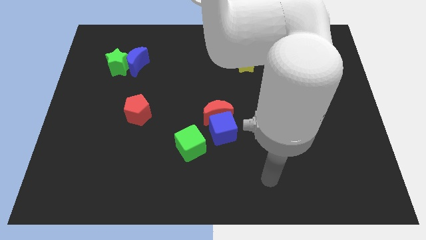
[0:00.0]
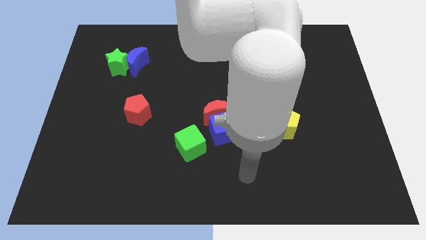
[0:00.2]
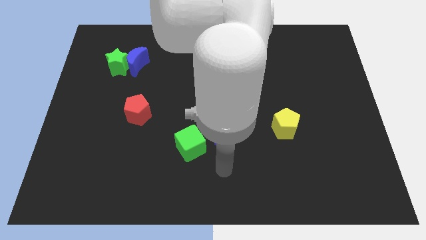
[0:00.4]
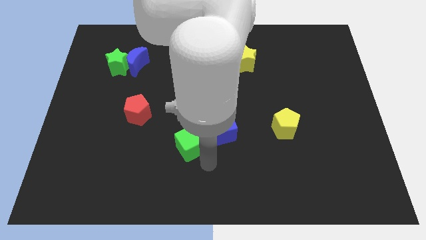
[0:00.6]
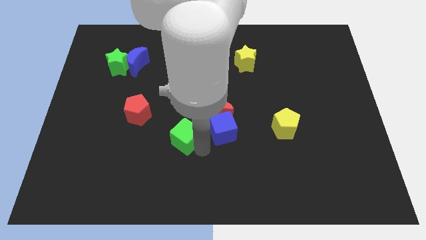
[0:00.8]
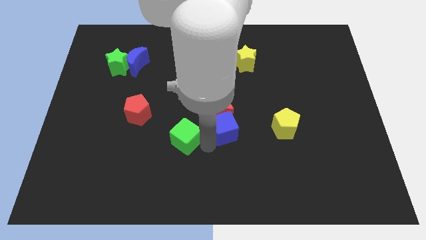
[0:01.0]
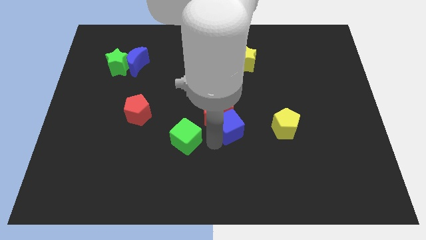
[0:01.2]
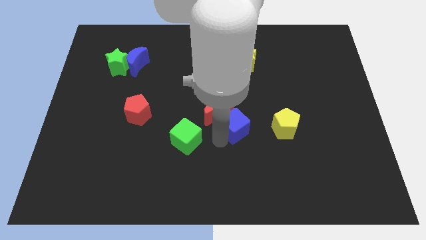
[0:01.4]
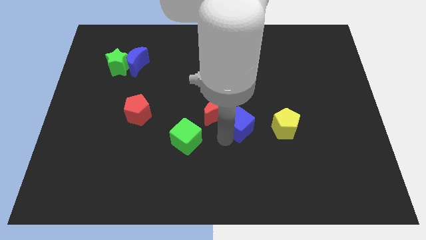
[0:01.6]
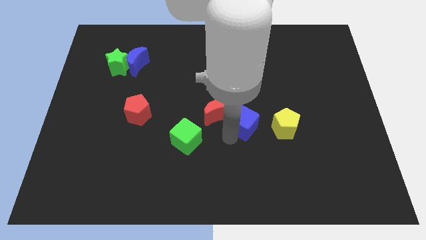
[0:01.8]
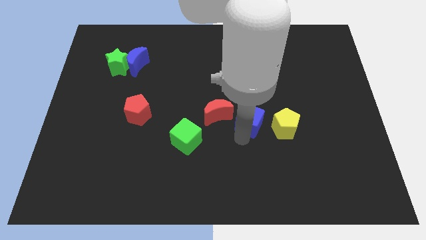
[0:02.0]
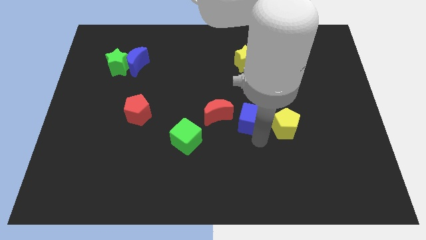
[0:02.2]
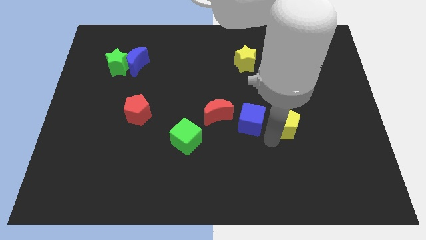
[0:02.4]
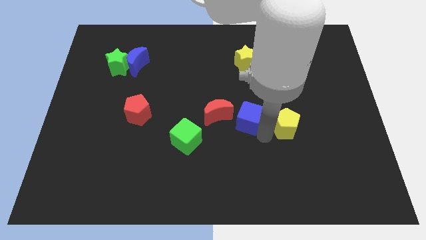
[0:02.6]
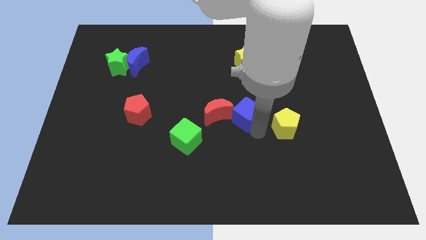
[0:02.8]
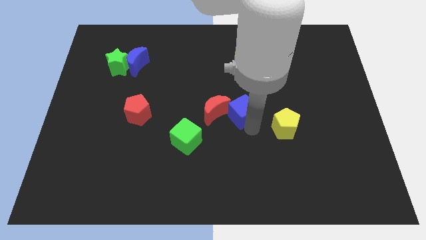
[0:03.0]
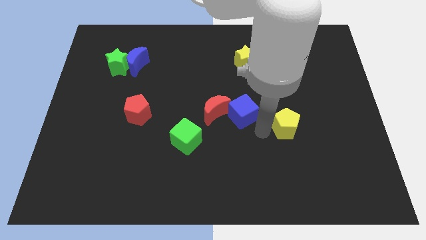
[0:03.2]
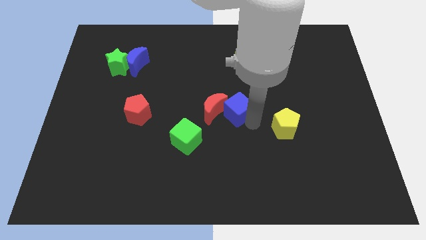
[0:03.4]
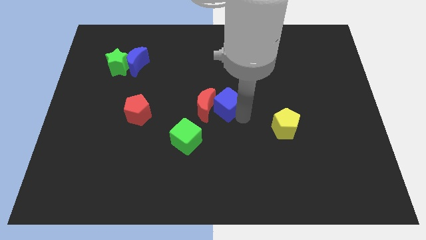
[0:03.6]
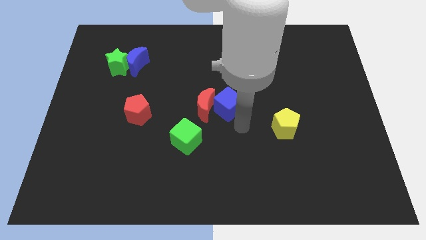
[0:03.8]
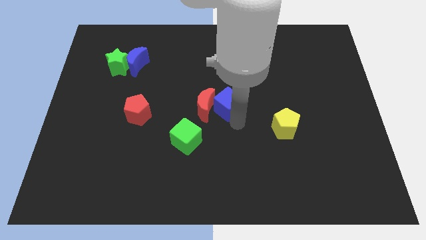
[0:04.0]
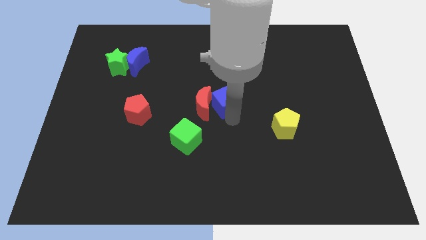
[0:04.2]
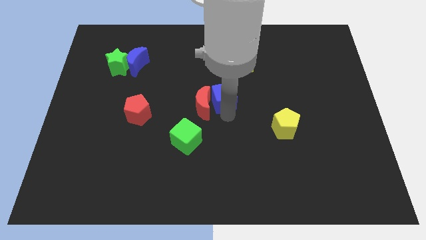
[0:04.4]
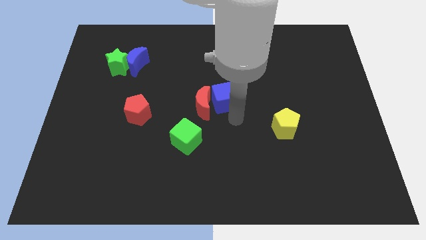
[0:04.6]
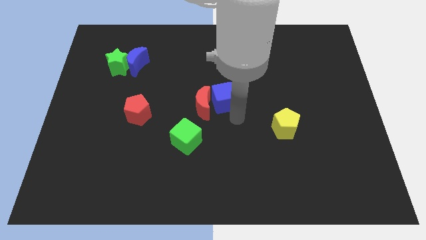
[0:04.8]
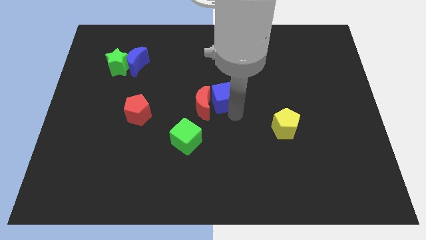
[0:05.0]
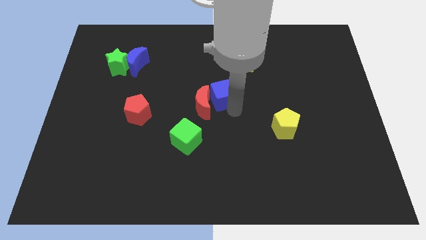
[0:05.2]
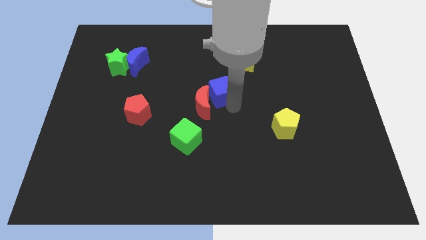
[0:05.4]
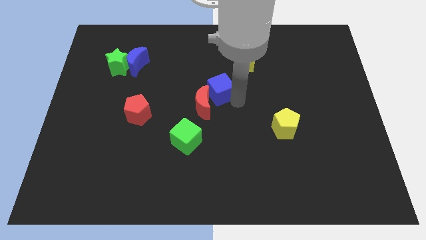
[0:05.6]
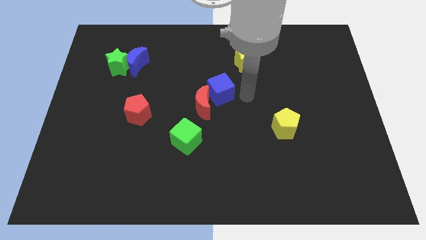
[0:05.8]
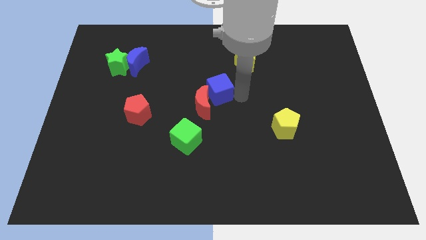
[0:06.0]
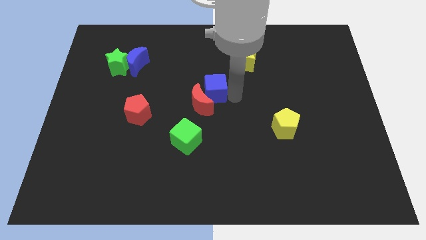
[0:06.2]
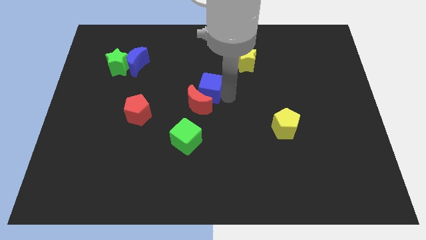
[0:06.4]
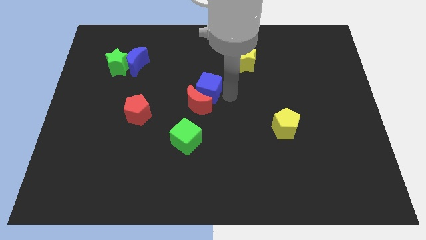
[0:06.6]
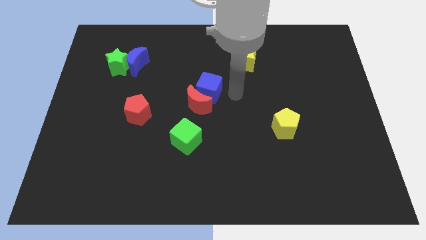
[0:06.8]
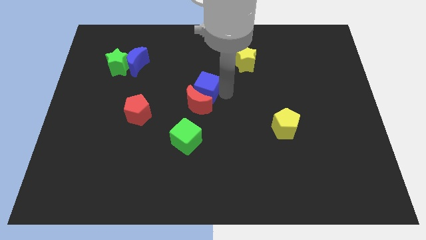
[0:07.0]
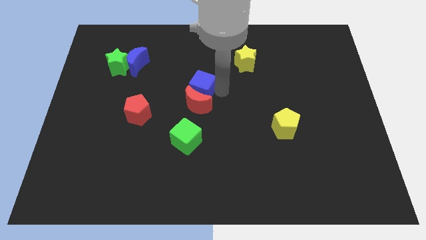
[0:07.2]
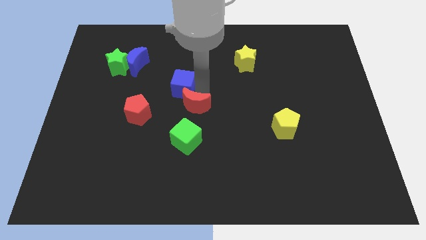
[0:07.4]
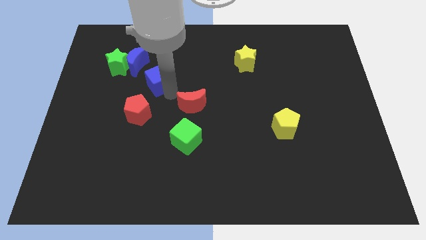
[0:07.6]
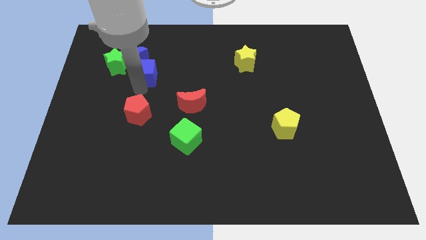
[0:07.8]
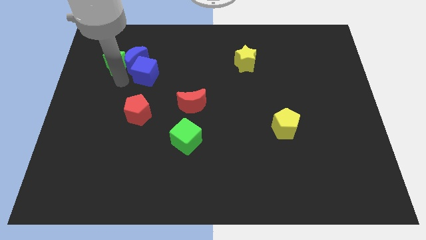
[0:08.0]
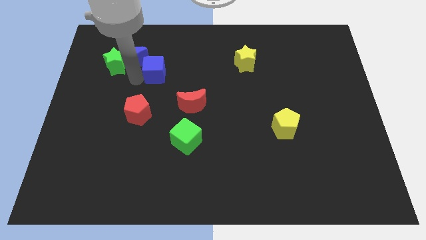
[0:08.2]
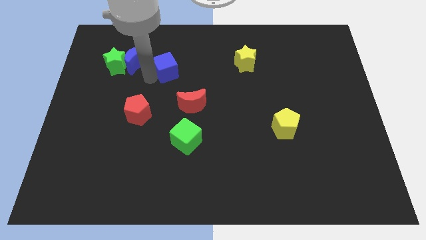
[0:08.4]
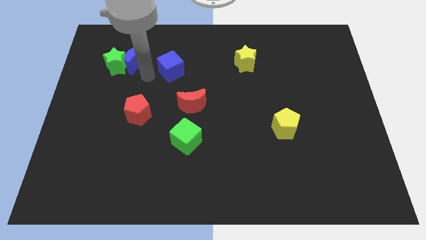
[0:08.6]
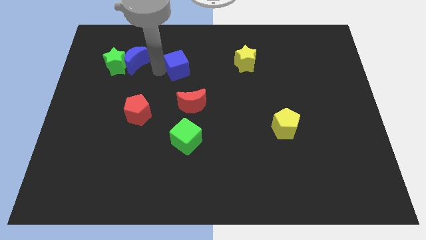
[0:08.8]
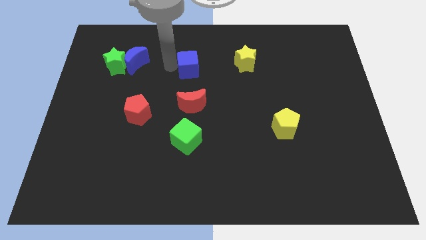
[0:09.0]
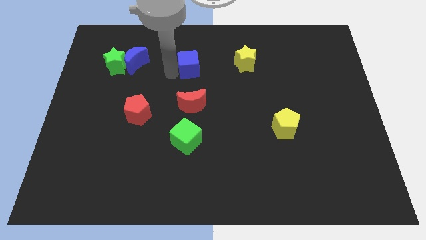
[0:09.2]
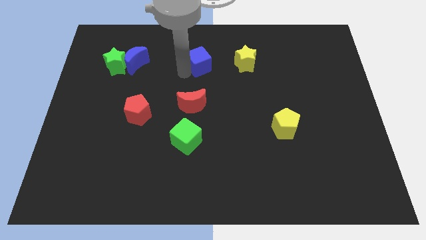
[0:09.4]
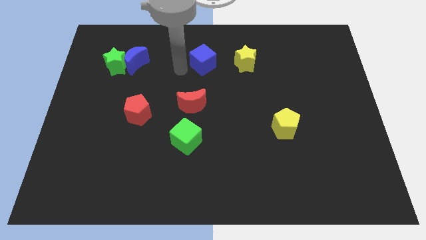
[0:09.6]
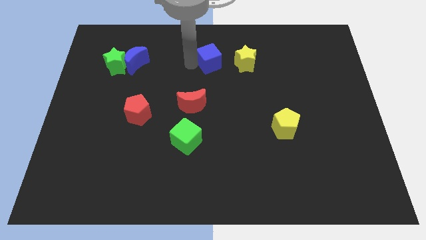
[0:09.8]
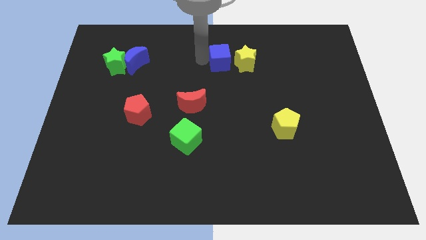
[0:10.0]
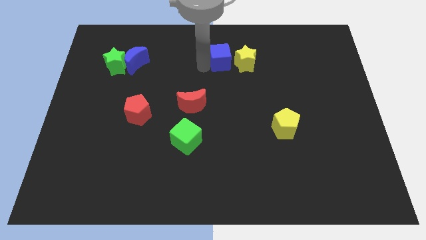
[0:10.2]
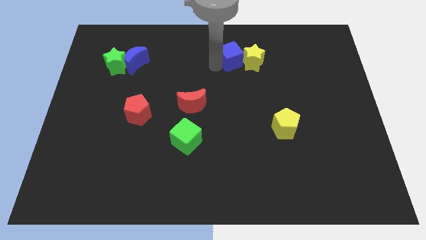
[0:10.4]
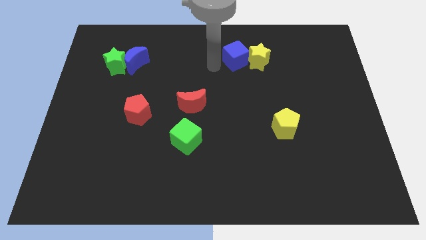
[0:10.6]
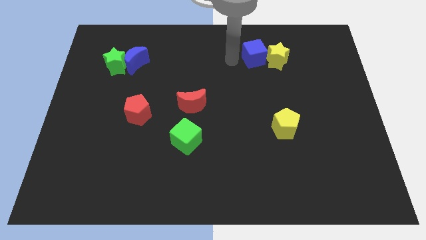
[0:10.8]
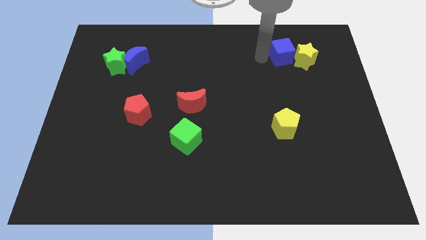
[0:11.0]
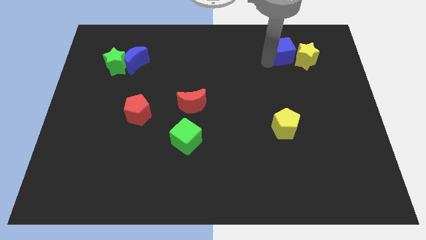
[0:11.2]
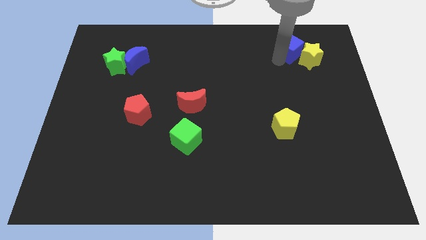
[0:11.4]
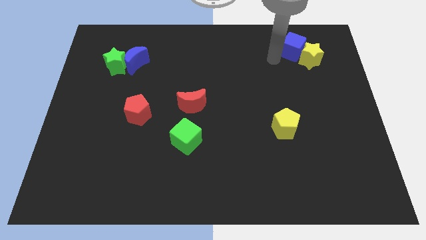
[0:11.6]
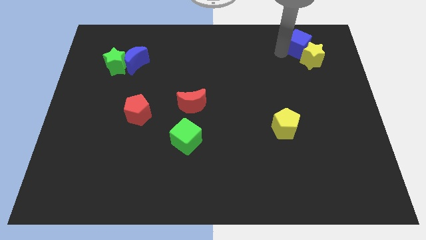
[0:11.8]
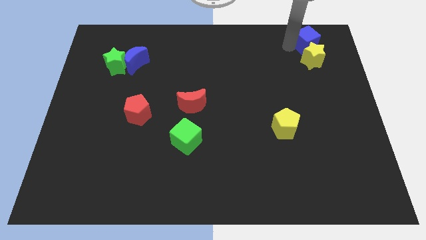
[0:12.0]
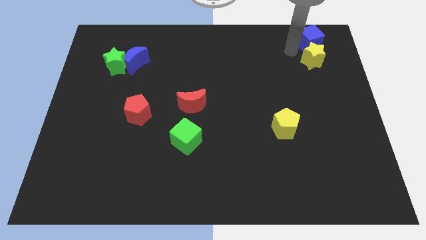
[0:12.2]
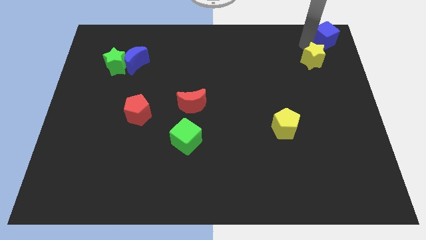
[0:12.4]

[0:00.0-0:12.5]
put the blue cube to the top right

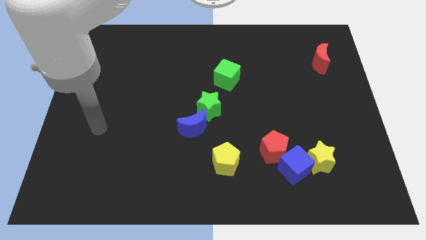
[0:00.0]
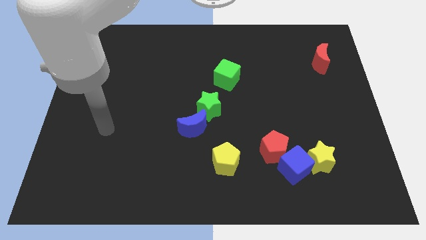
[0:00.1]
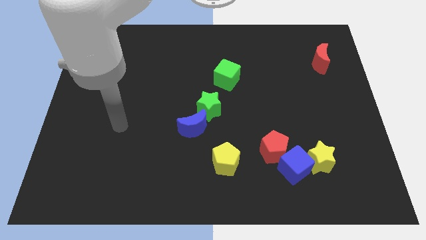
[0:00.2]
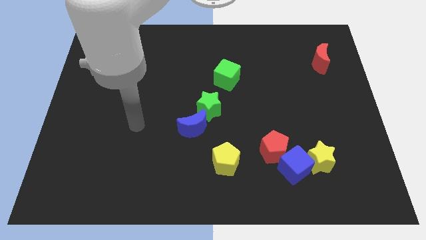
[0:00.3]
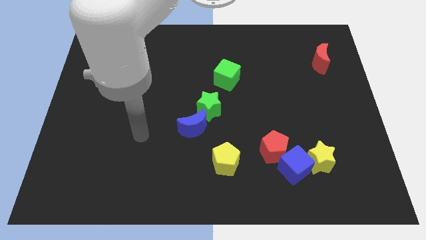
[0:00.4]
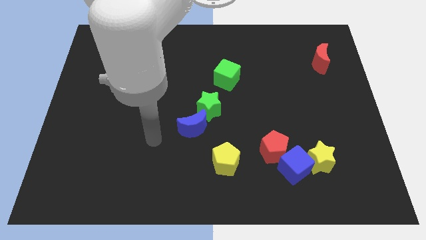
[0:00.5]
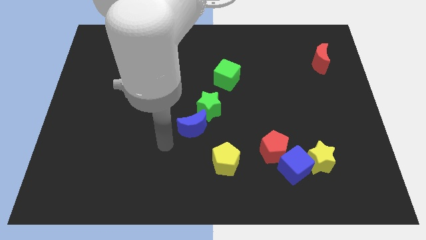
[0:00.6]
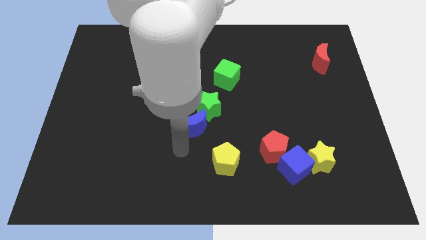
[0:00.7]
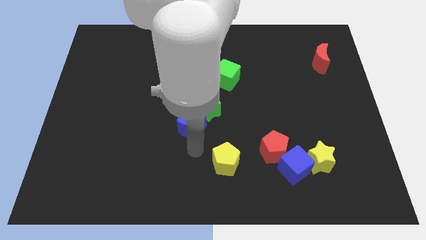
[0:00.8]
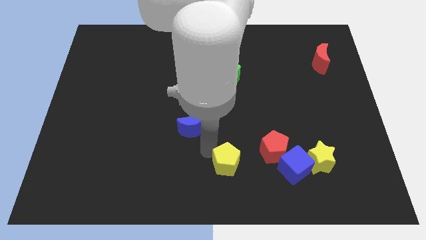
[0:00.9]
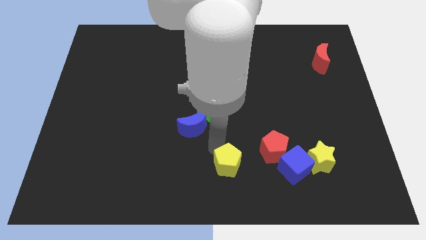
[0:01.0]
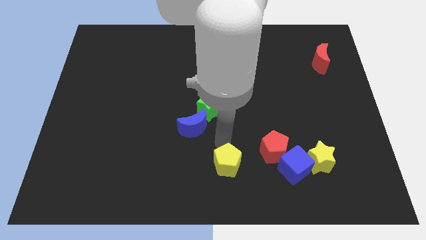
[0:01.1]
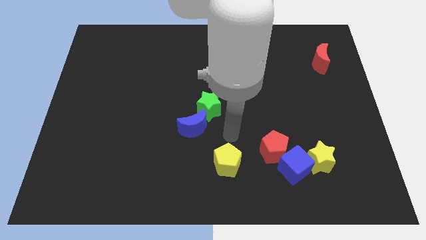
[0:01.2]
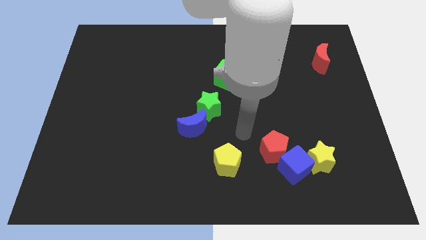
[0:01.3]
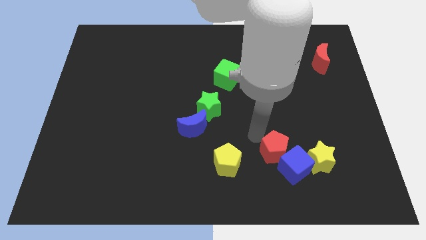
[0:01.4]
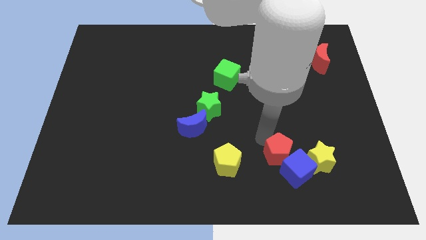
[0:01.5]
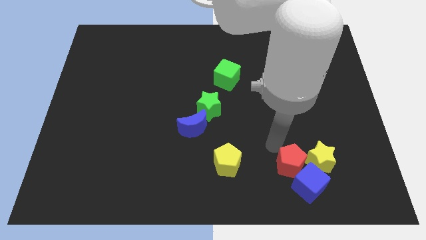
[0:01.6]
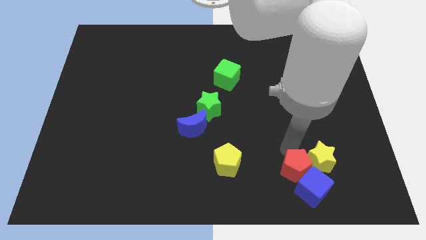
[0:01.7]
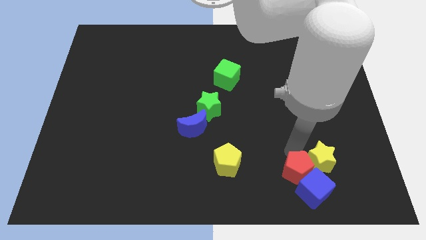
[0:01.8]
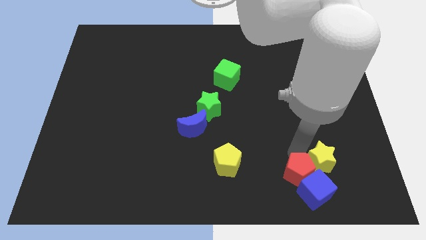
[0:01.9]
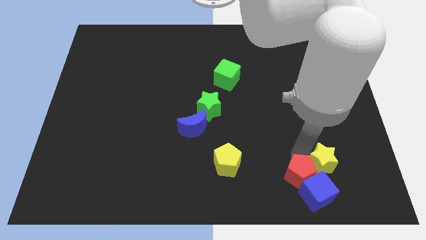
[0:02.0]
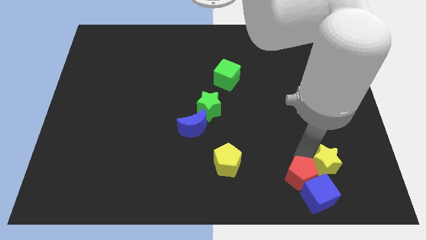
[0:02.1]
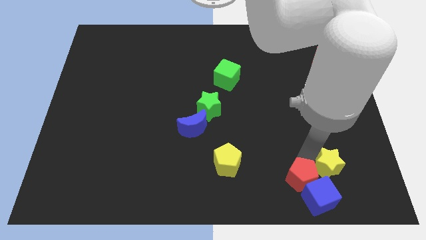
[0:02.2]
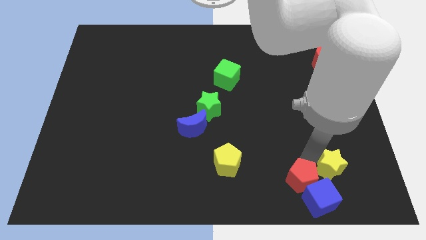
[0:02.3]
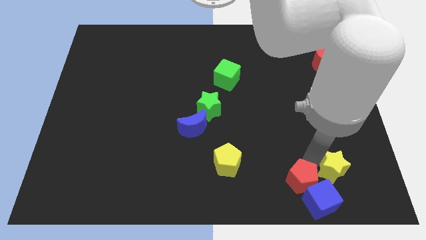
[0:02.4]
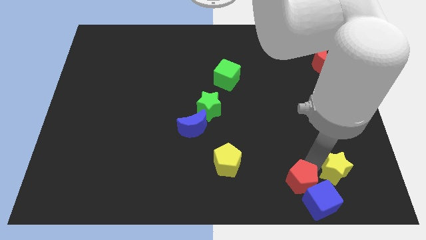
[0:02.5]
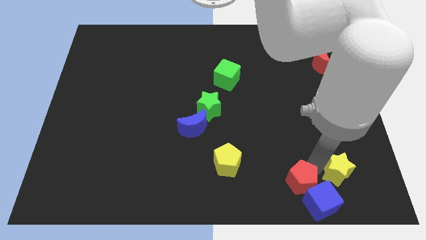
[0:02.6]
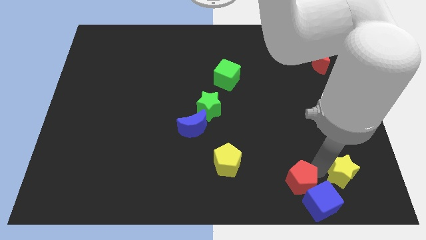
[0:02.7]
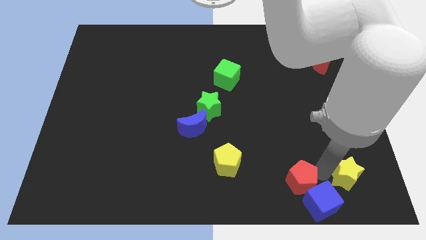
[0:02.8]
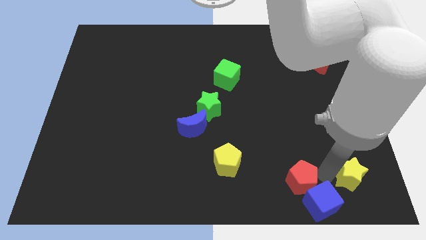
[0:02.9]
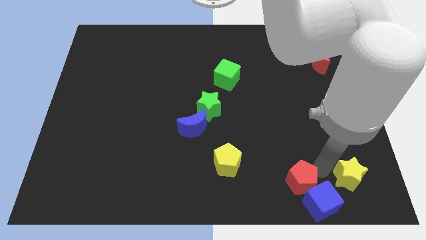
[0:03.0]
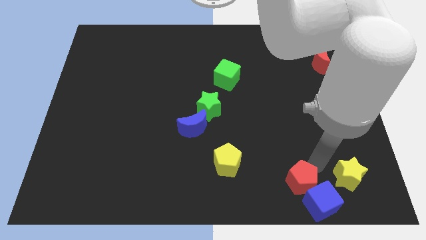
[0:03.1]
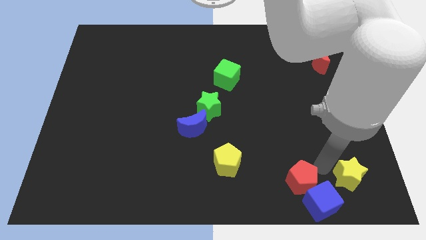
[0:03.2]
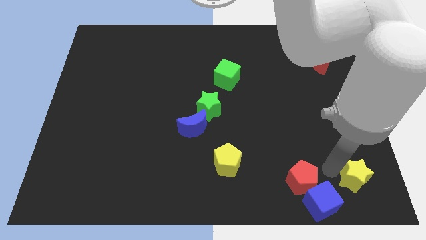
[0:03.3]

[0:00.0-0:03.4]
move the yellow star to the bottom right corner
